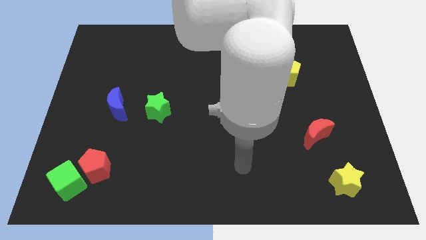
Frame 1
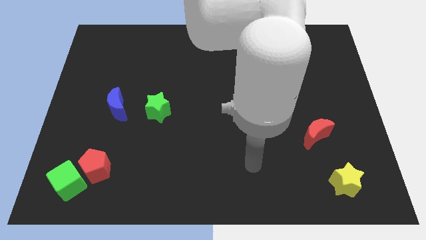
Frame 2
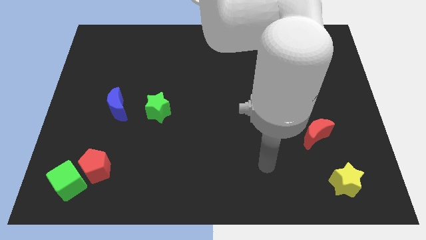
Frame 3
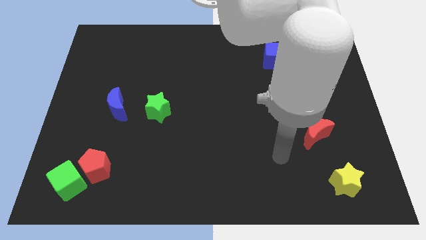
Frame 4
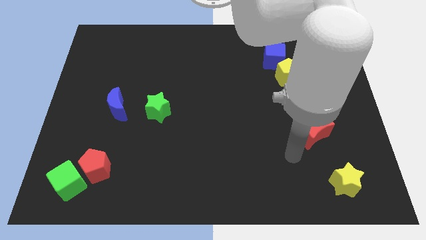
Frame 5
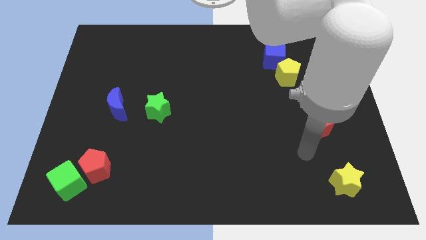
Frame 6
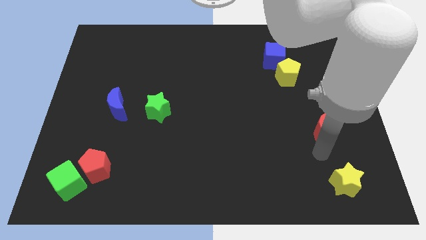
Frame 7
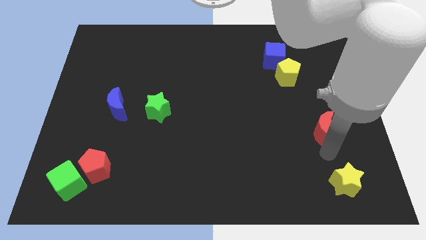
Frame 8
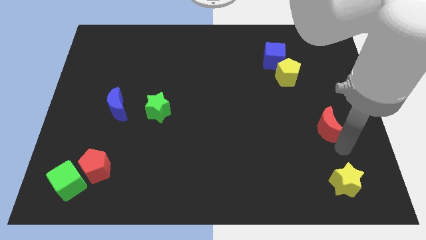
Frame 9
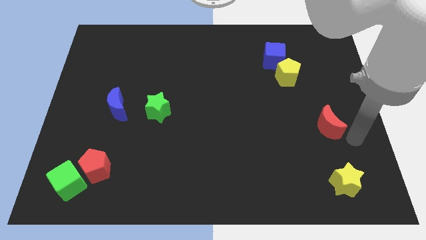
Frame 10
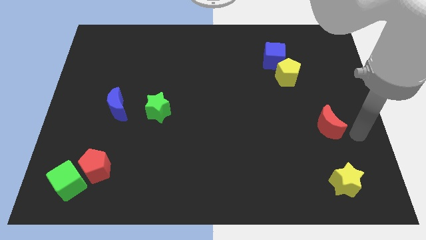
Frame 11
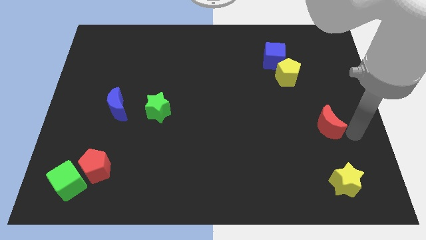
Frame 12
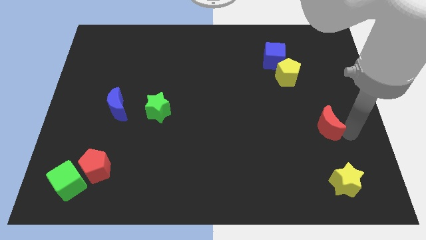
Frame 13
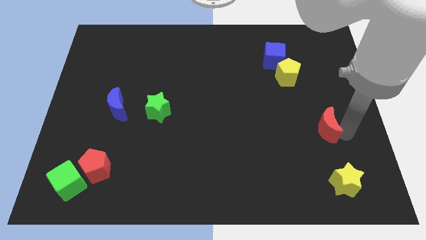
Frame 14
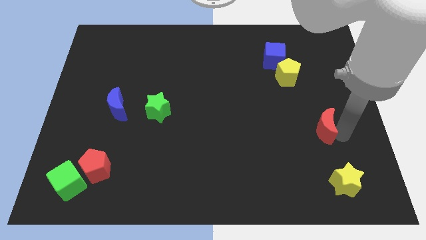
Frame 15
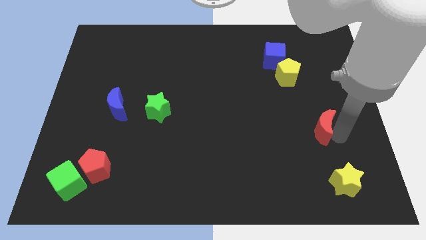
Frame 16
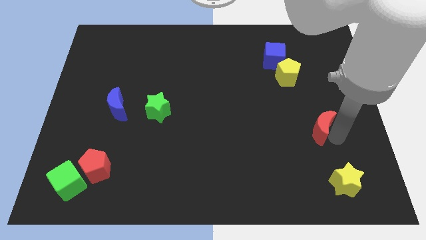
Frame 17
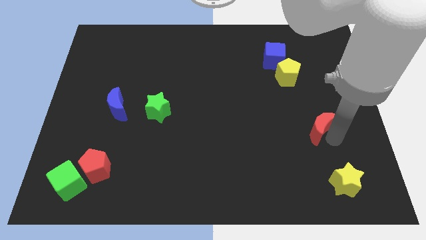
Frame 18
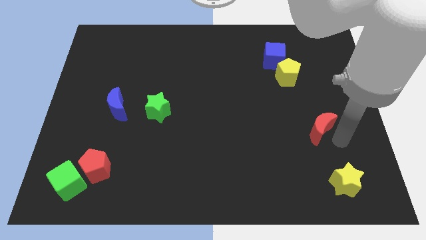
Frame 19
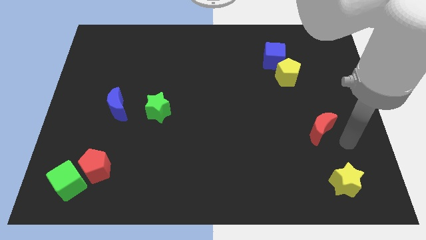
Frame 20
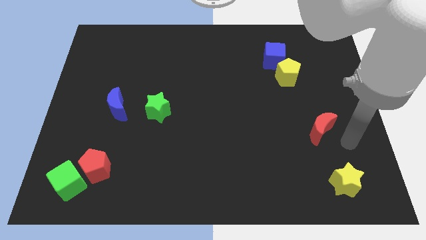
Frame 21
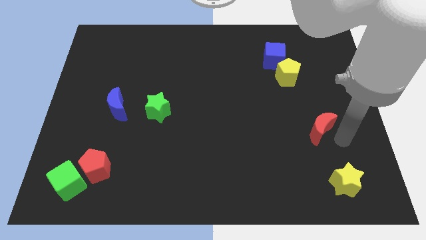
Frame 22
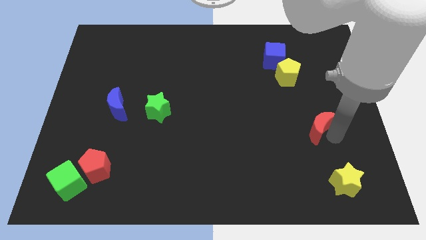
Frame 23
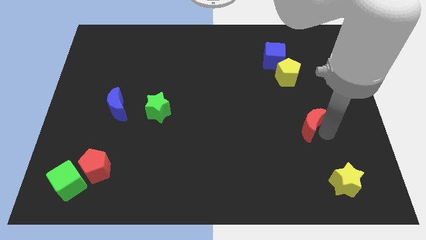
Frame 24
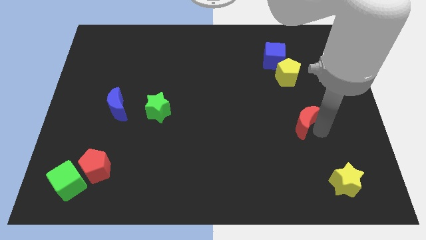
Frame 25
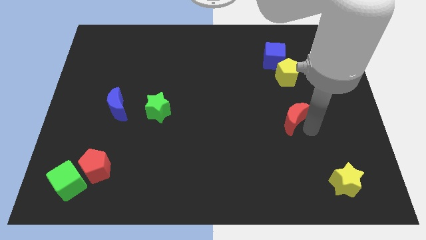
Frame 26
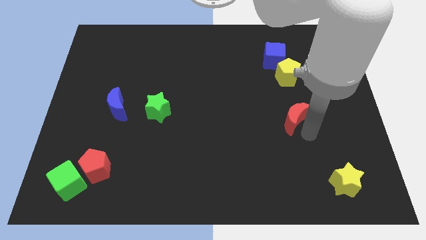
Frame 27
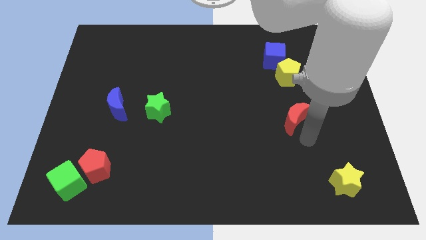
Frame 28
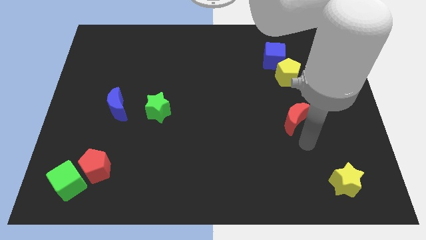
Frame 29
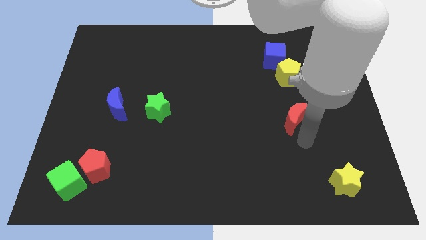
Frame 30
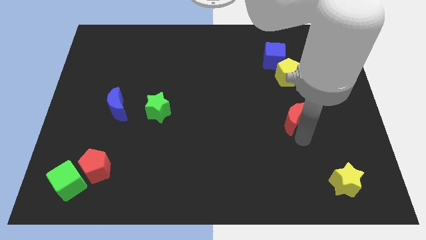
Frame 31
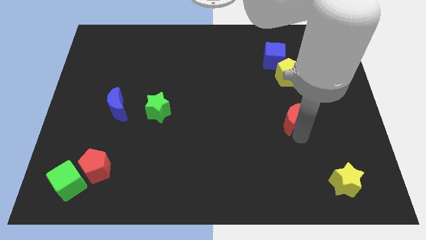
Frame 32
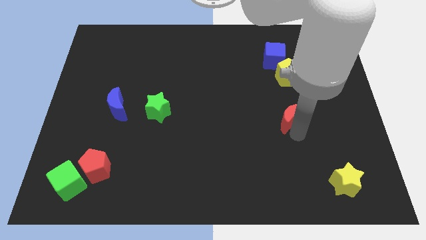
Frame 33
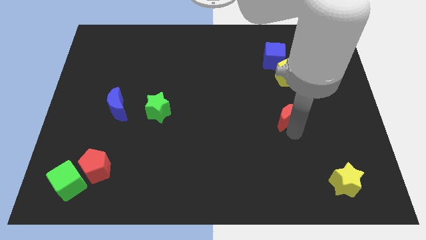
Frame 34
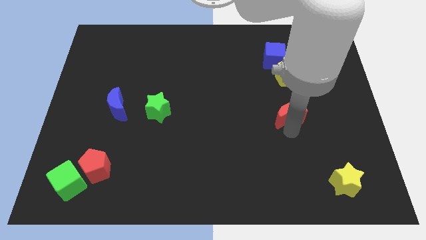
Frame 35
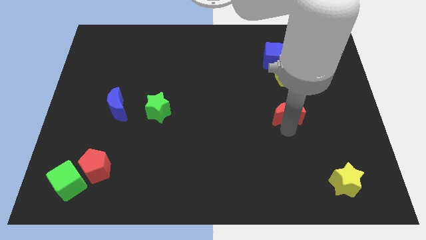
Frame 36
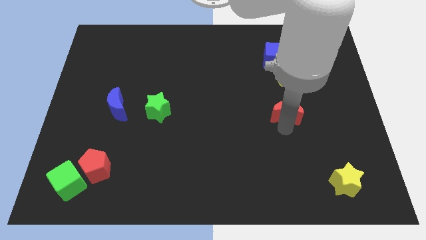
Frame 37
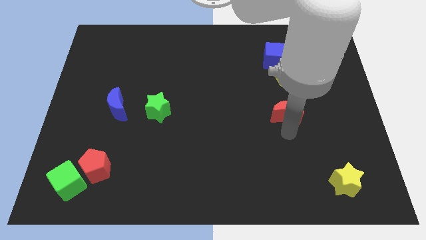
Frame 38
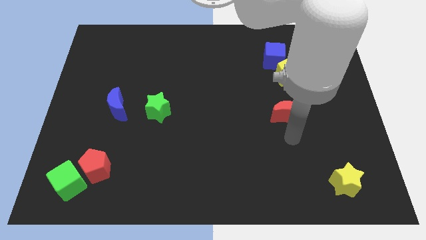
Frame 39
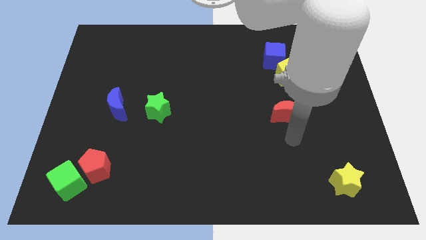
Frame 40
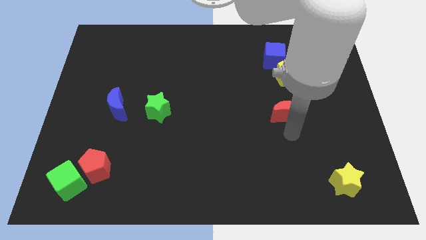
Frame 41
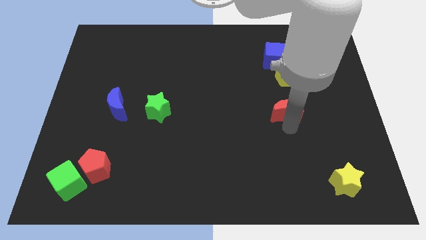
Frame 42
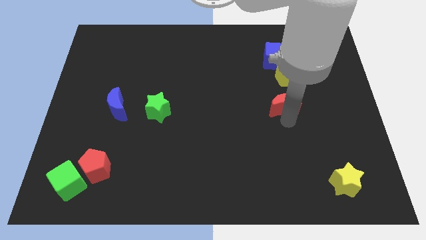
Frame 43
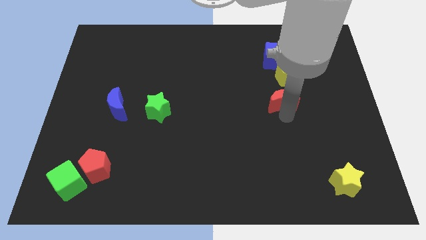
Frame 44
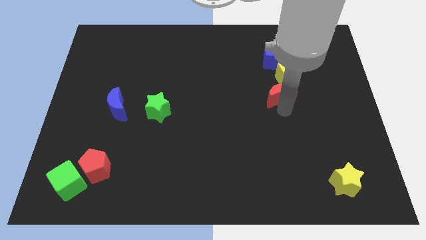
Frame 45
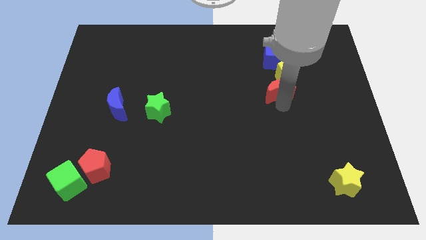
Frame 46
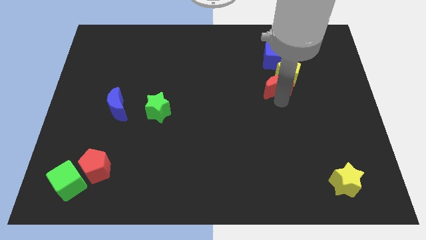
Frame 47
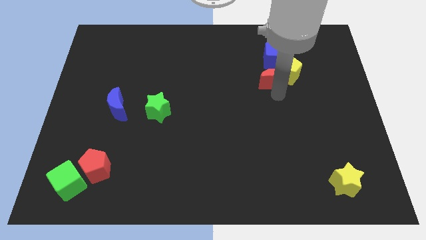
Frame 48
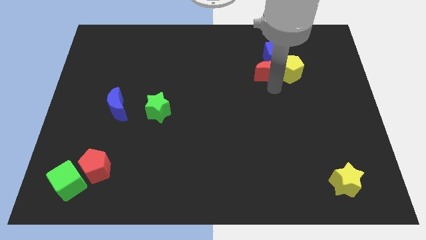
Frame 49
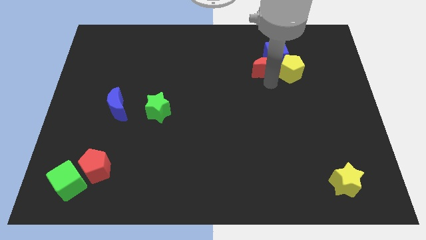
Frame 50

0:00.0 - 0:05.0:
push the red moon towards the blue cube

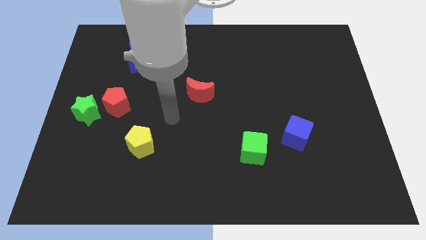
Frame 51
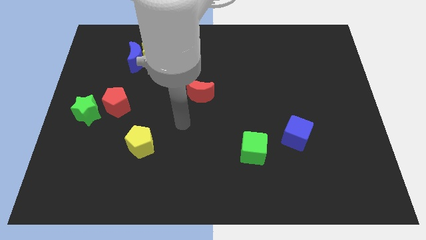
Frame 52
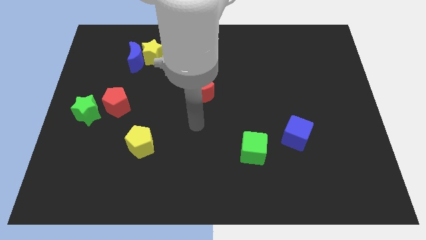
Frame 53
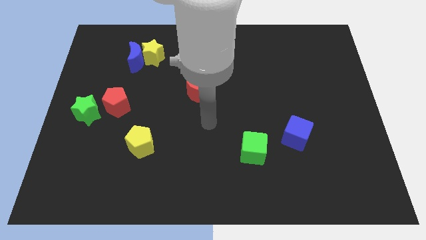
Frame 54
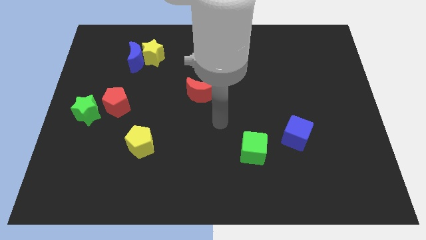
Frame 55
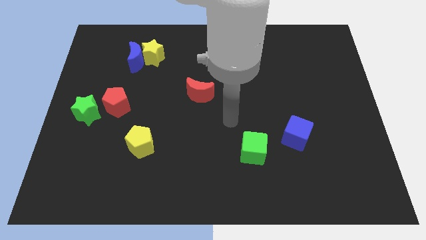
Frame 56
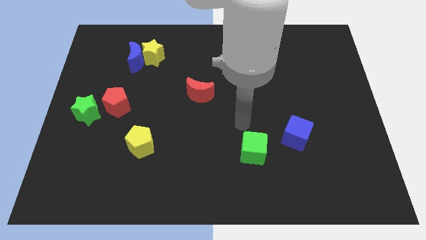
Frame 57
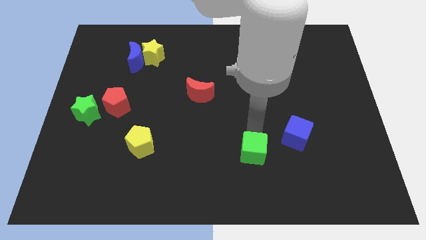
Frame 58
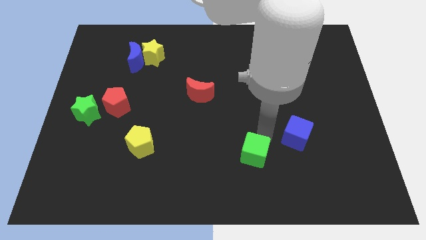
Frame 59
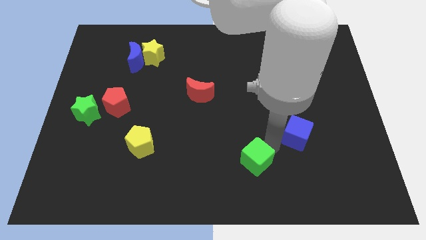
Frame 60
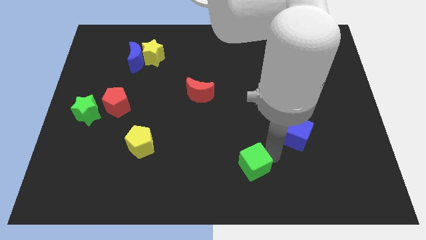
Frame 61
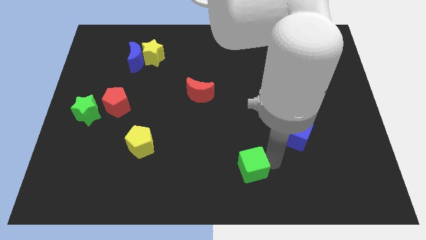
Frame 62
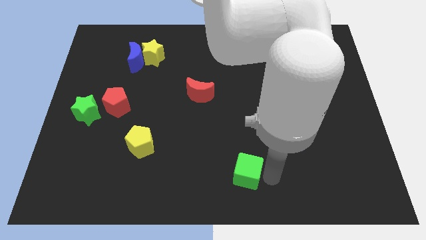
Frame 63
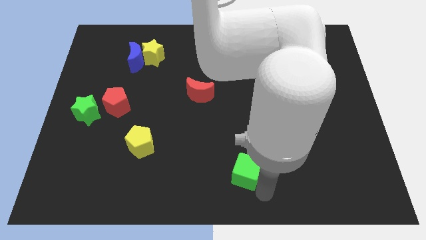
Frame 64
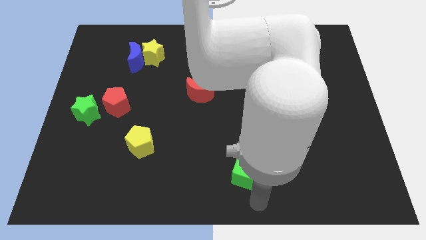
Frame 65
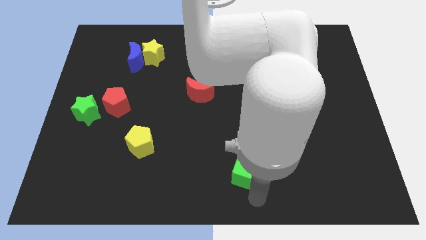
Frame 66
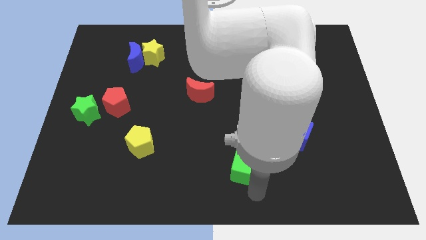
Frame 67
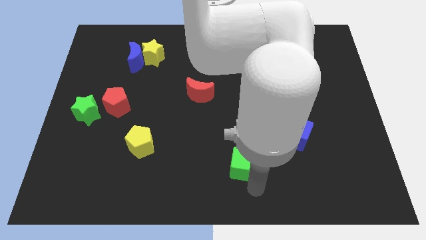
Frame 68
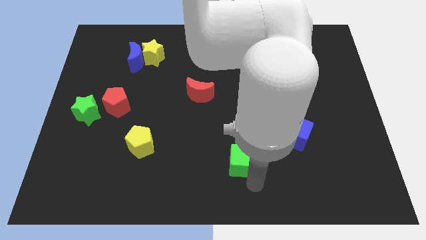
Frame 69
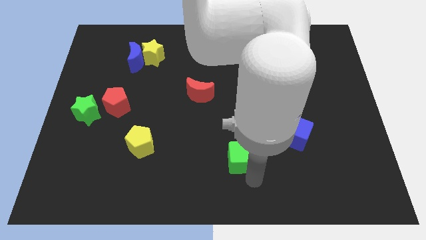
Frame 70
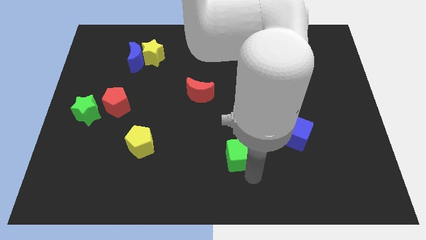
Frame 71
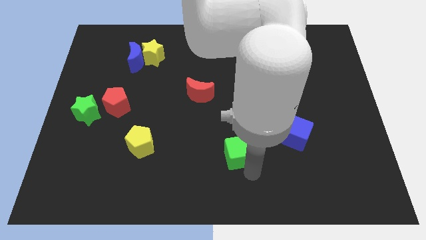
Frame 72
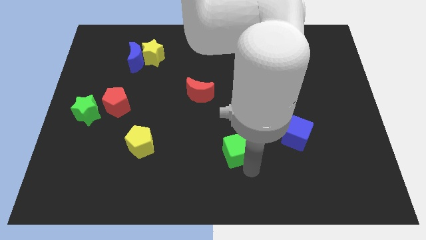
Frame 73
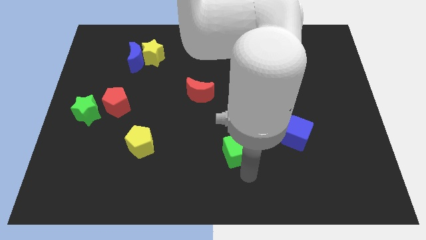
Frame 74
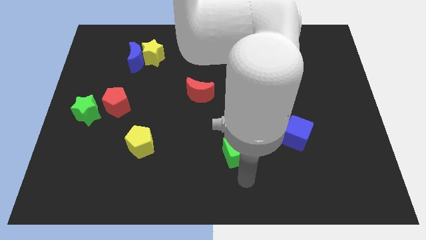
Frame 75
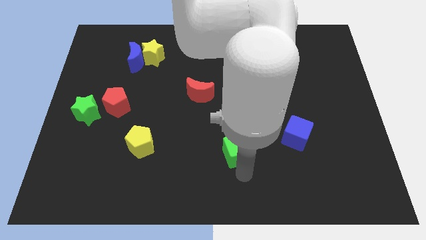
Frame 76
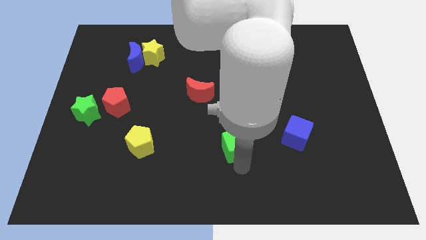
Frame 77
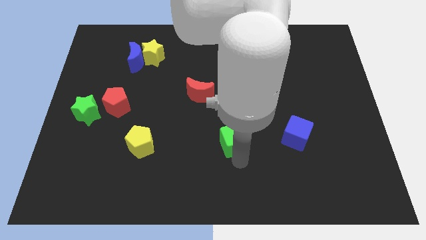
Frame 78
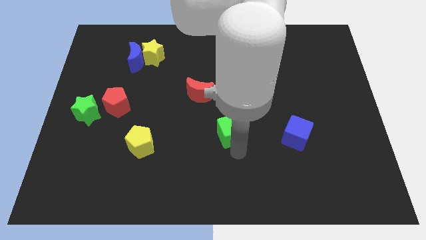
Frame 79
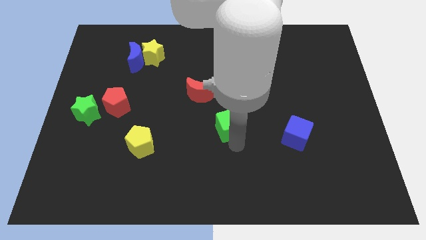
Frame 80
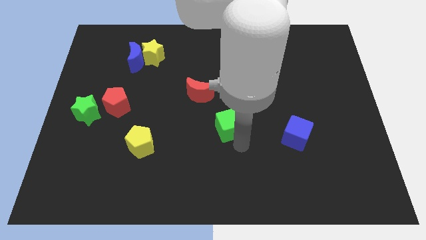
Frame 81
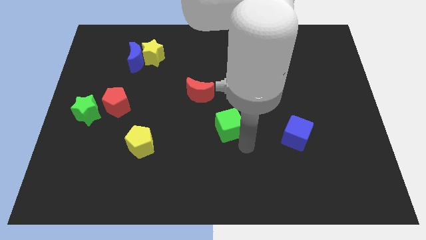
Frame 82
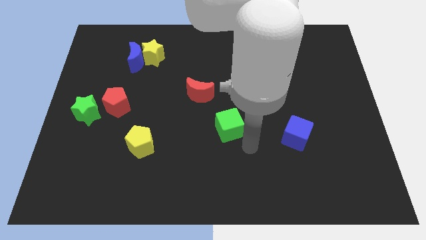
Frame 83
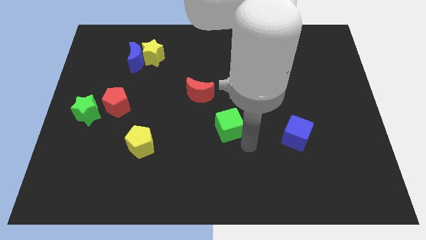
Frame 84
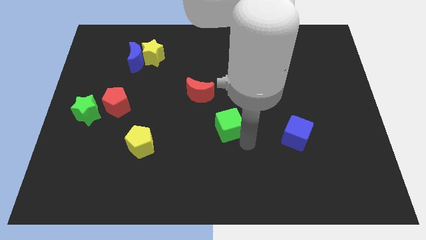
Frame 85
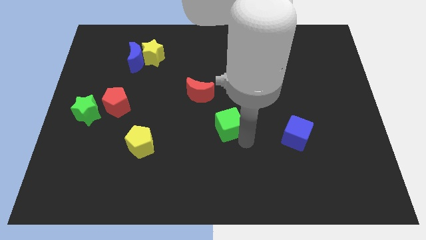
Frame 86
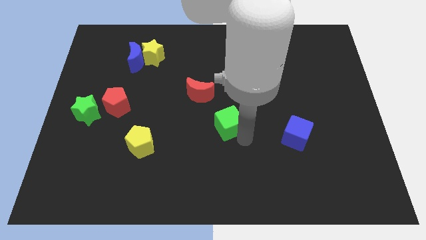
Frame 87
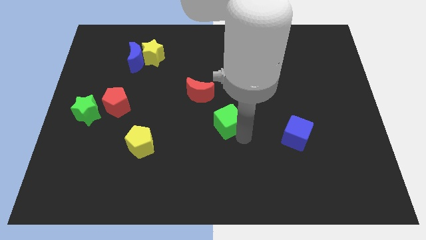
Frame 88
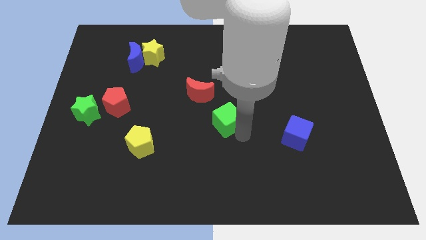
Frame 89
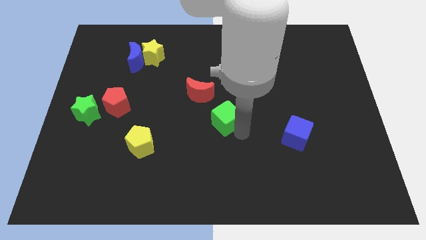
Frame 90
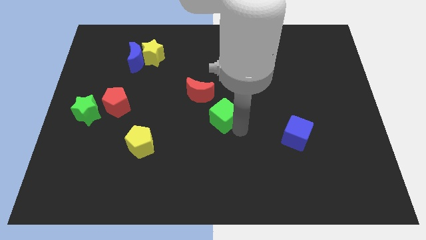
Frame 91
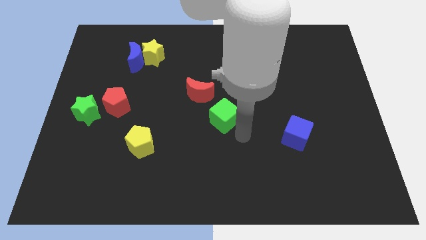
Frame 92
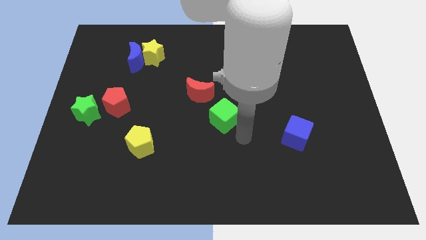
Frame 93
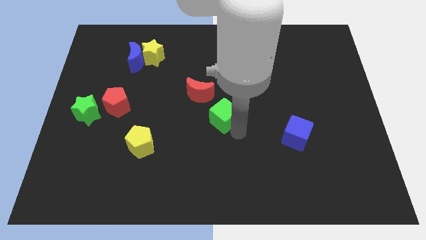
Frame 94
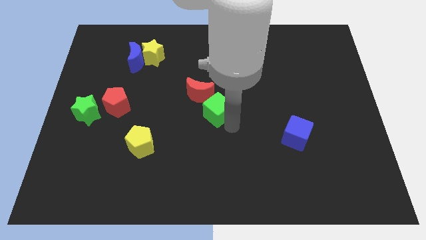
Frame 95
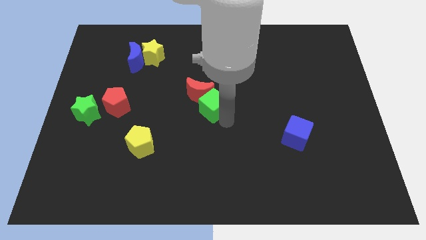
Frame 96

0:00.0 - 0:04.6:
move the green cube next to the red moon
